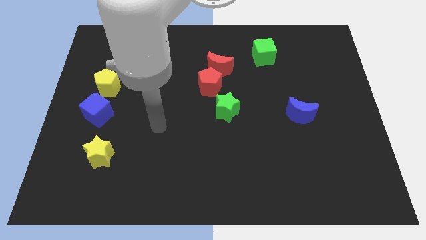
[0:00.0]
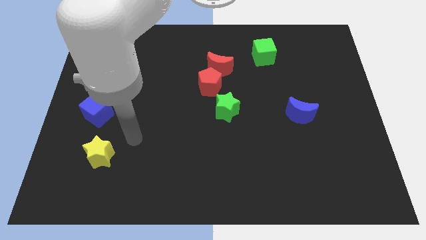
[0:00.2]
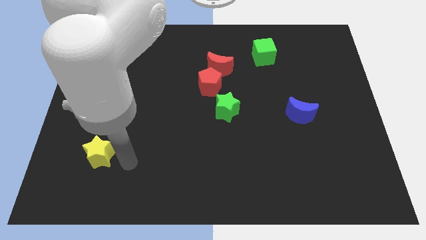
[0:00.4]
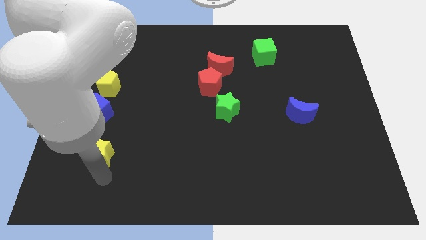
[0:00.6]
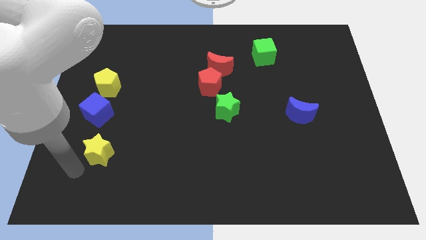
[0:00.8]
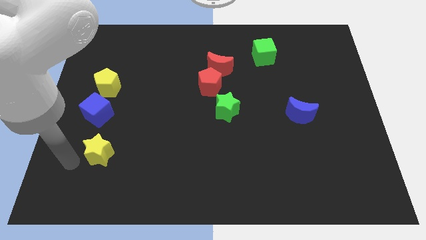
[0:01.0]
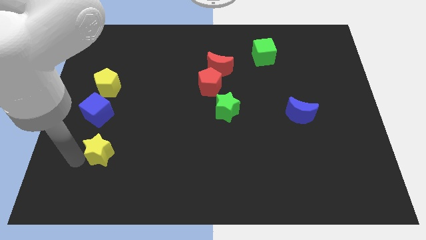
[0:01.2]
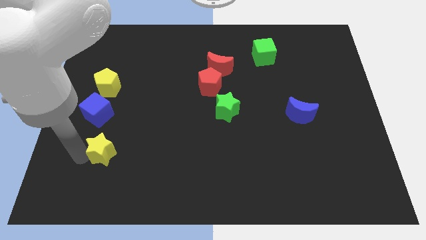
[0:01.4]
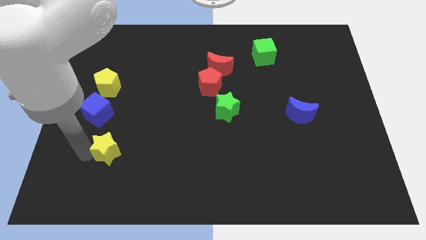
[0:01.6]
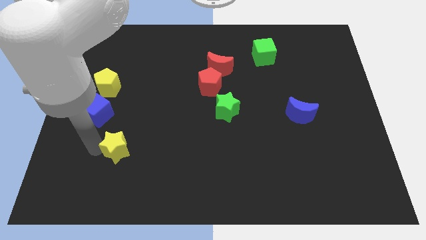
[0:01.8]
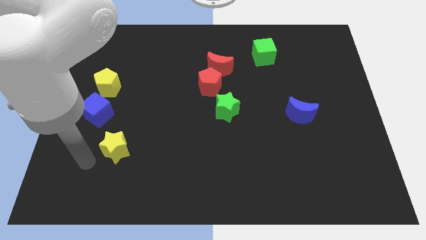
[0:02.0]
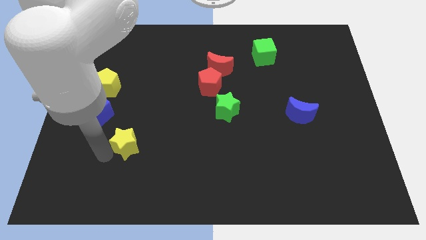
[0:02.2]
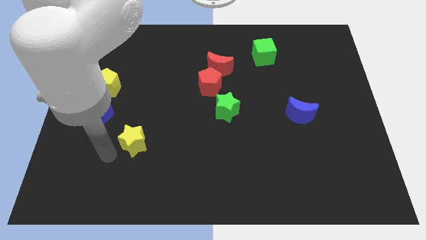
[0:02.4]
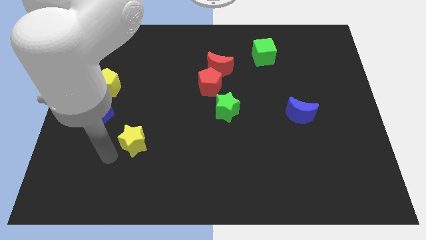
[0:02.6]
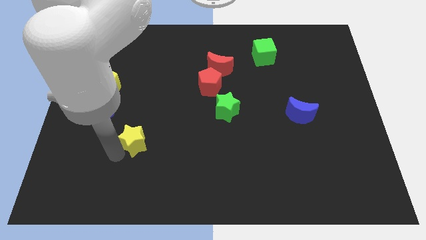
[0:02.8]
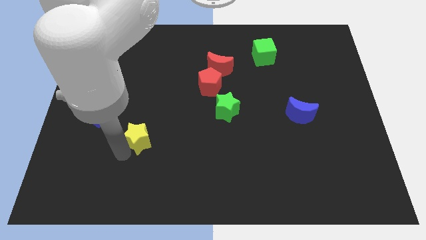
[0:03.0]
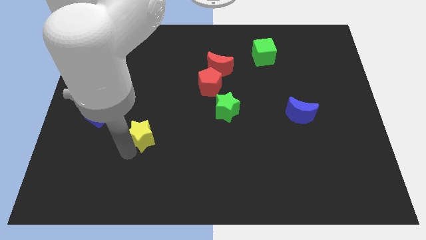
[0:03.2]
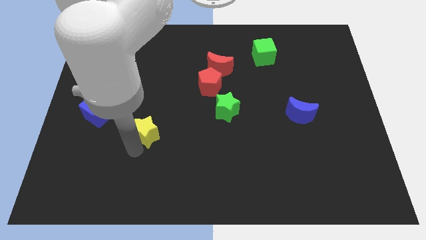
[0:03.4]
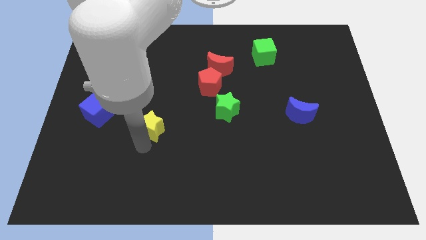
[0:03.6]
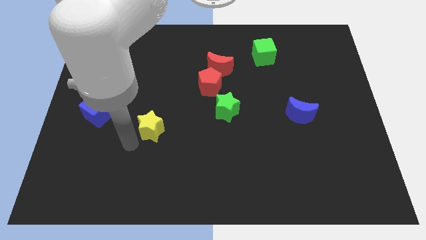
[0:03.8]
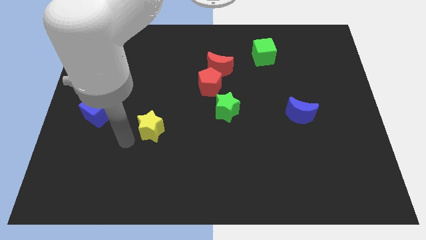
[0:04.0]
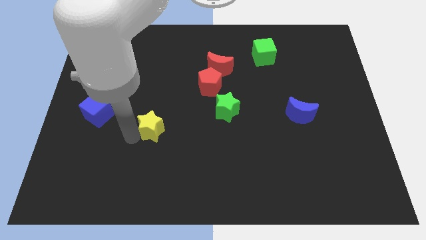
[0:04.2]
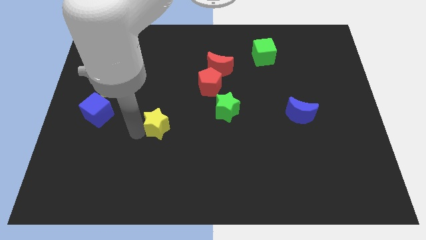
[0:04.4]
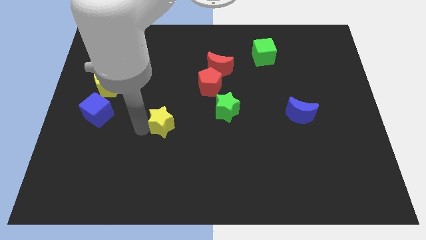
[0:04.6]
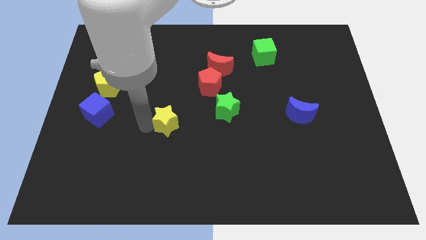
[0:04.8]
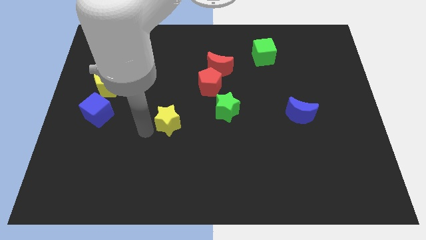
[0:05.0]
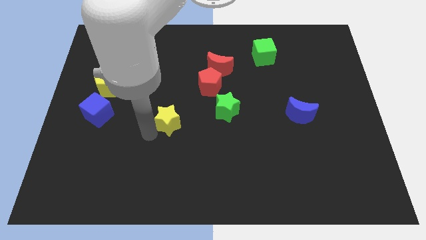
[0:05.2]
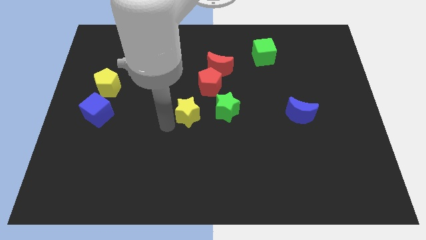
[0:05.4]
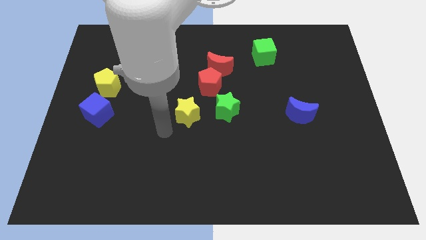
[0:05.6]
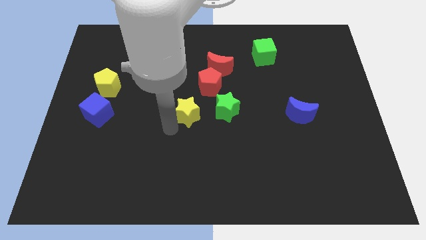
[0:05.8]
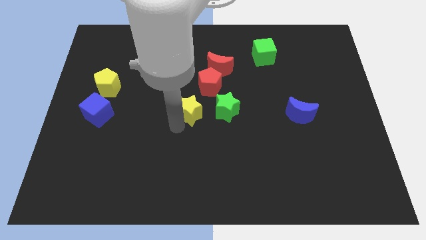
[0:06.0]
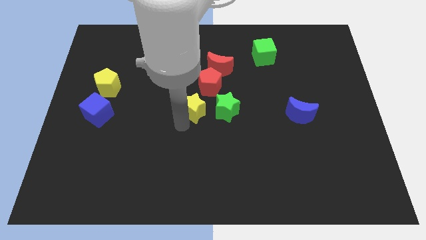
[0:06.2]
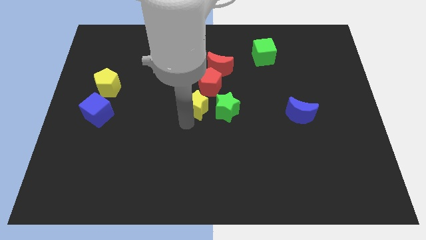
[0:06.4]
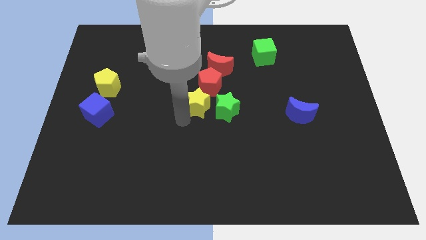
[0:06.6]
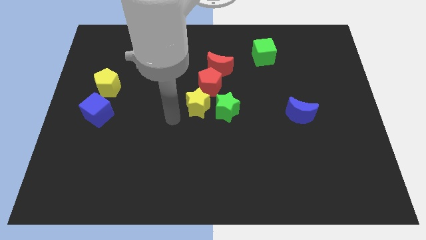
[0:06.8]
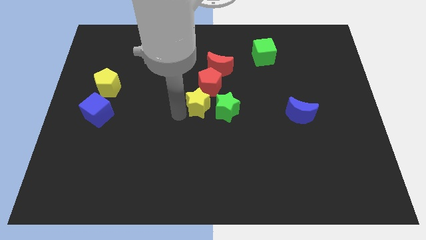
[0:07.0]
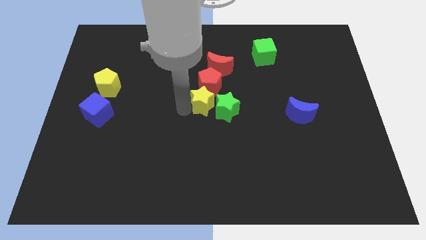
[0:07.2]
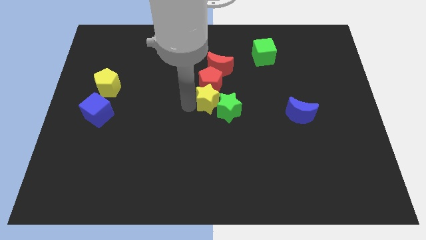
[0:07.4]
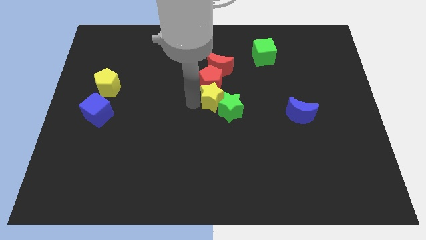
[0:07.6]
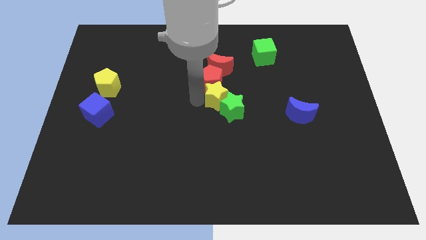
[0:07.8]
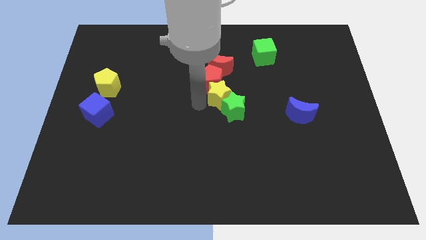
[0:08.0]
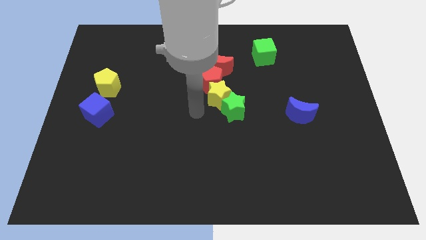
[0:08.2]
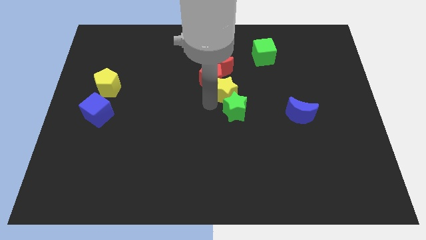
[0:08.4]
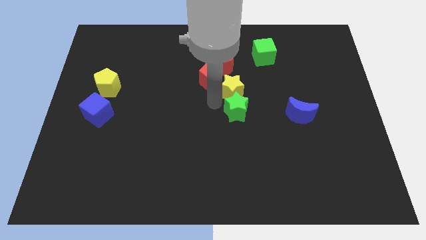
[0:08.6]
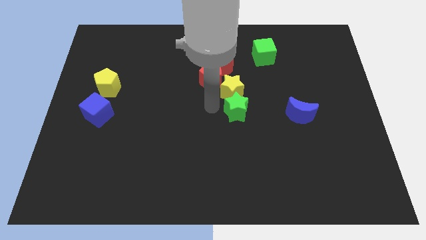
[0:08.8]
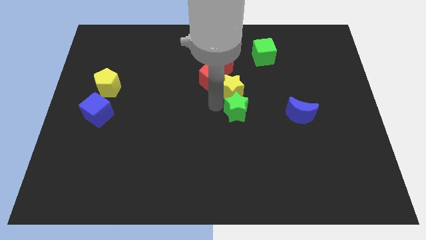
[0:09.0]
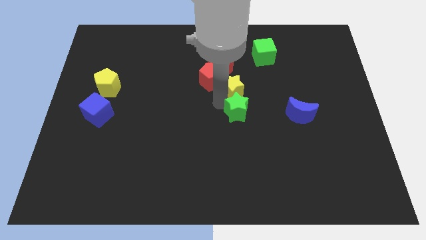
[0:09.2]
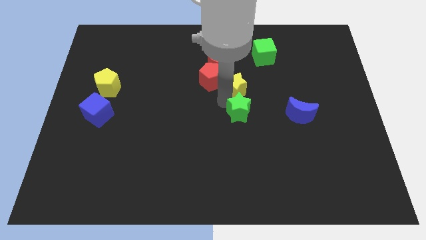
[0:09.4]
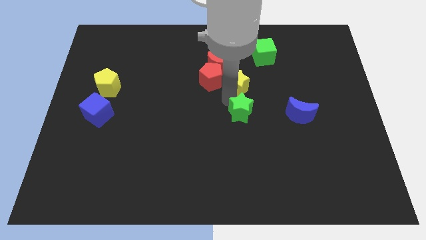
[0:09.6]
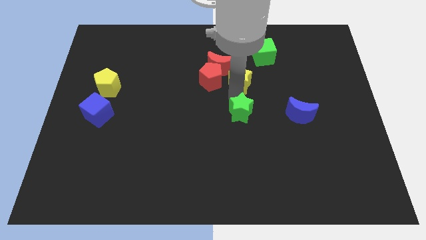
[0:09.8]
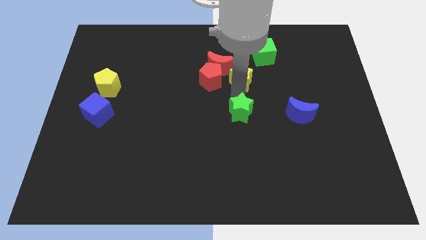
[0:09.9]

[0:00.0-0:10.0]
push the yellow star to the right side of the red moon
